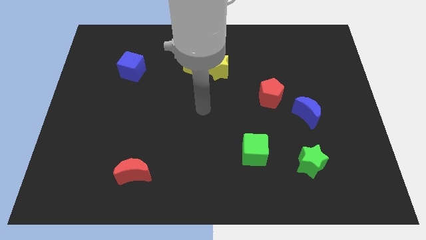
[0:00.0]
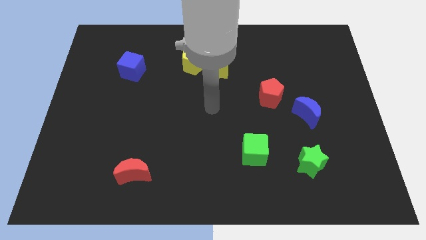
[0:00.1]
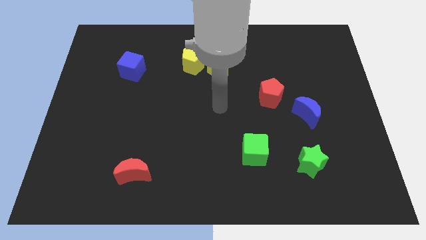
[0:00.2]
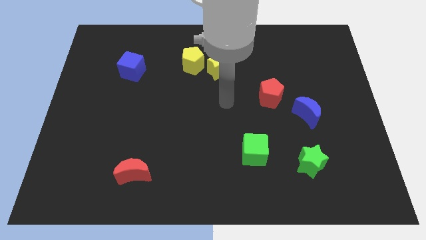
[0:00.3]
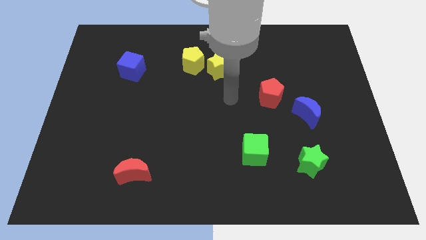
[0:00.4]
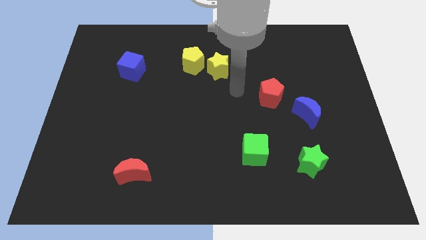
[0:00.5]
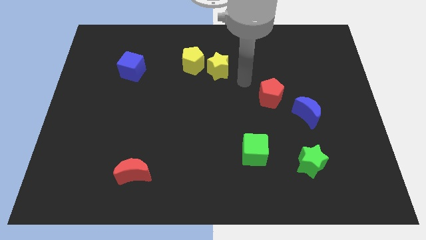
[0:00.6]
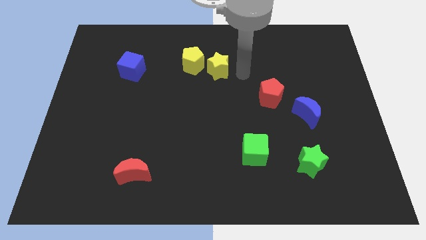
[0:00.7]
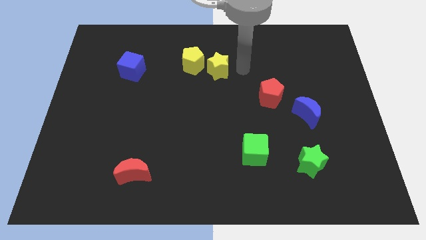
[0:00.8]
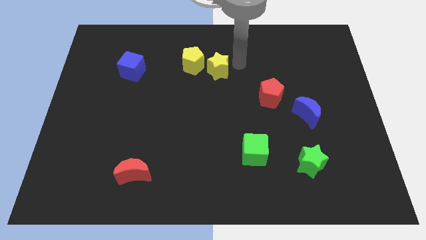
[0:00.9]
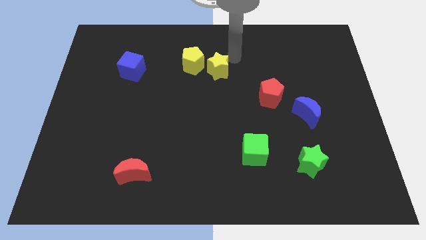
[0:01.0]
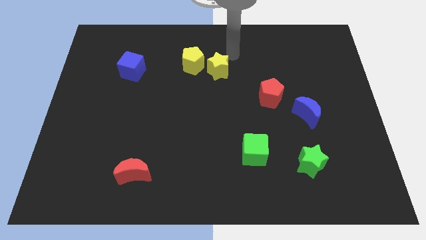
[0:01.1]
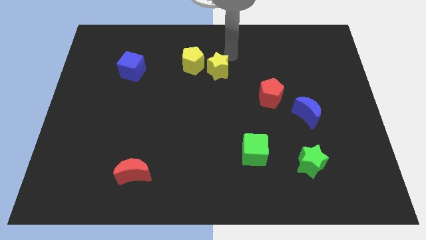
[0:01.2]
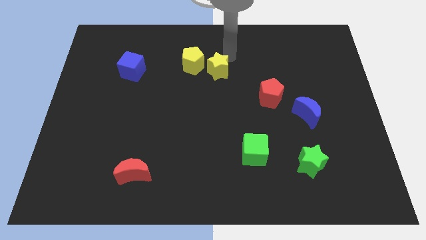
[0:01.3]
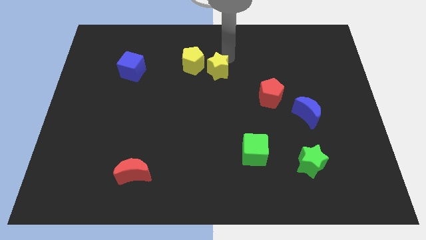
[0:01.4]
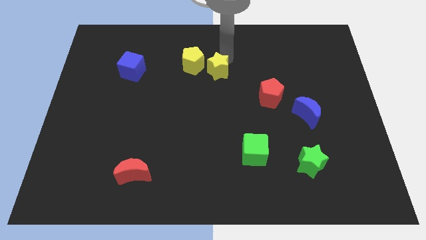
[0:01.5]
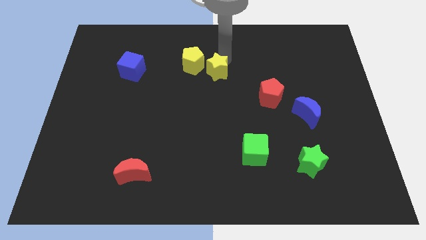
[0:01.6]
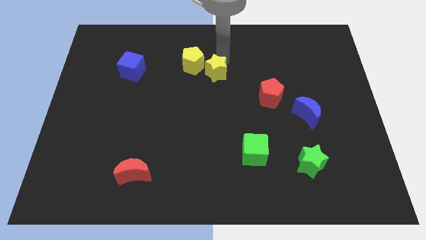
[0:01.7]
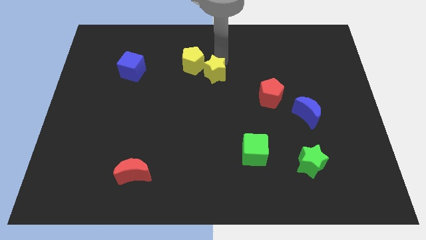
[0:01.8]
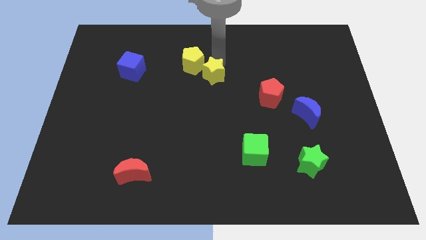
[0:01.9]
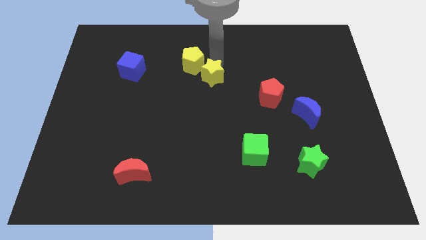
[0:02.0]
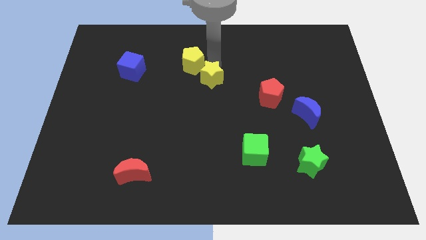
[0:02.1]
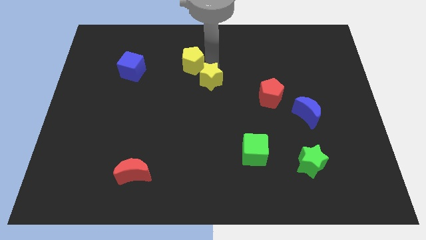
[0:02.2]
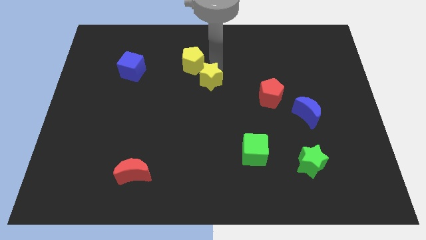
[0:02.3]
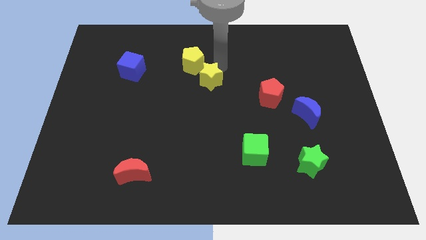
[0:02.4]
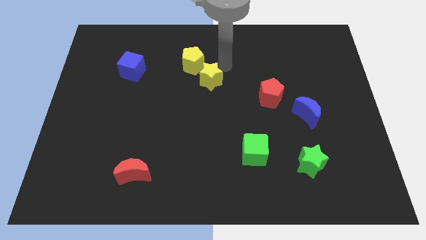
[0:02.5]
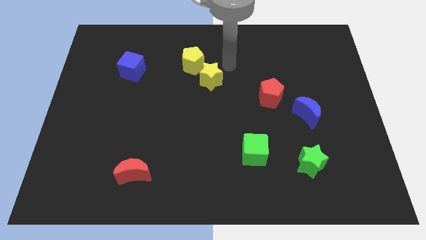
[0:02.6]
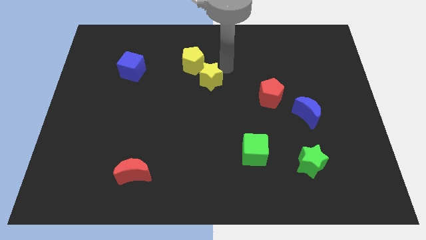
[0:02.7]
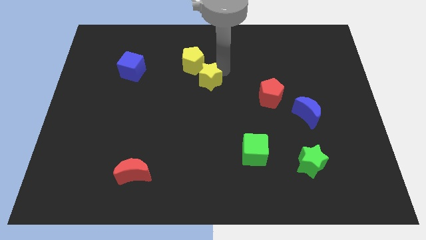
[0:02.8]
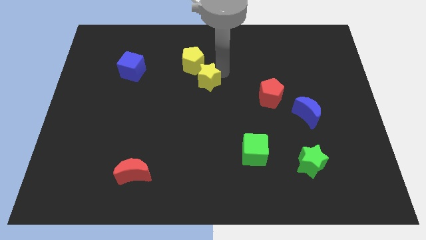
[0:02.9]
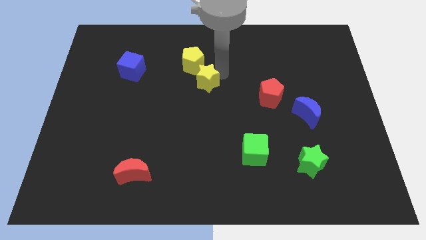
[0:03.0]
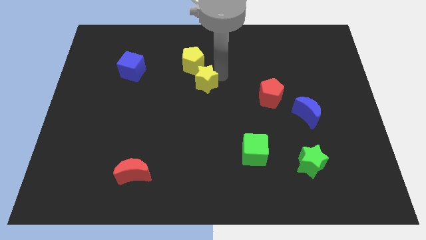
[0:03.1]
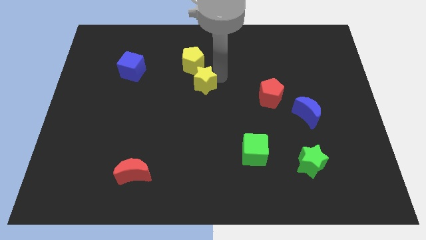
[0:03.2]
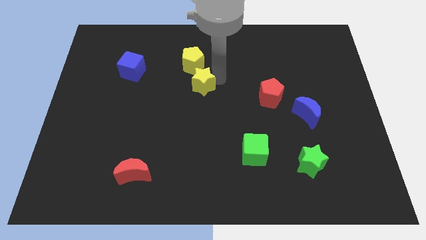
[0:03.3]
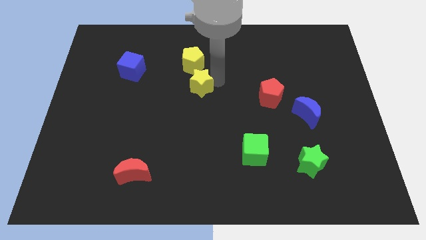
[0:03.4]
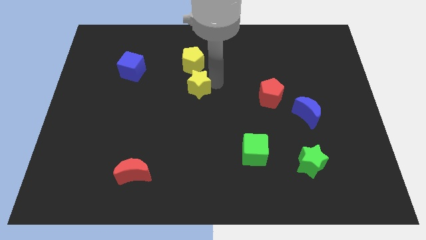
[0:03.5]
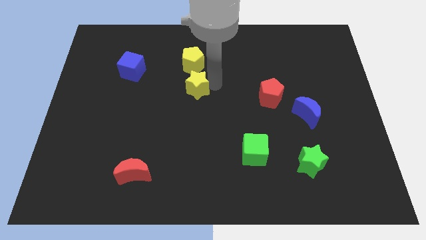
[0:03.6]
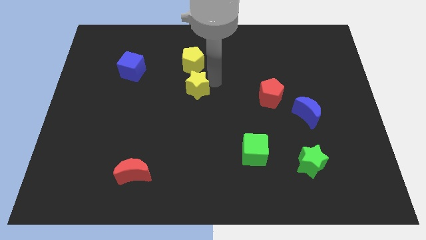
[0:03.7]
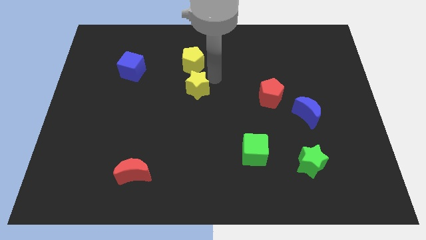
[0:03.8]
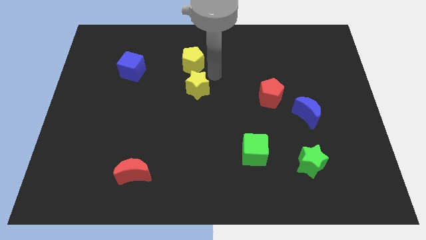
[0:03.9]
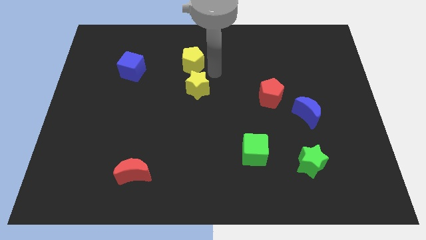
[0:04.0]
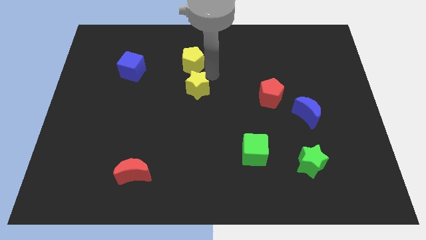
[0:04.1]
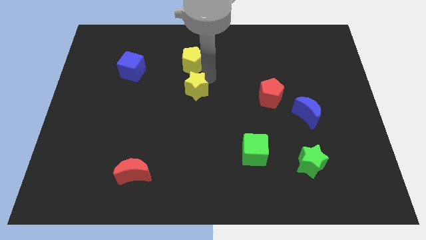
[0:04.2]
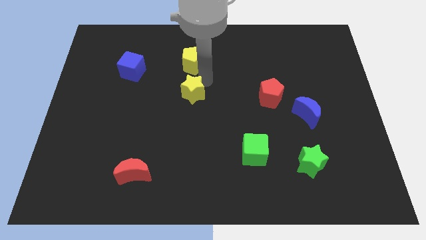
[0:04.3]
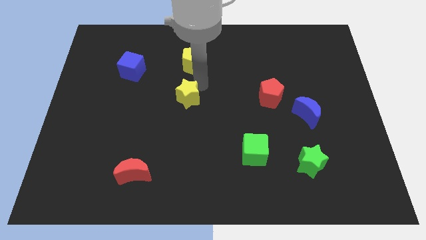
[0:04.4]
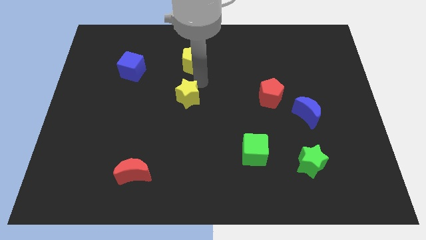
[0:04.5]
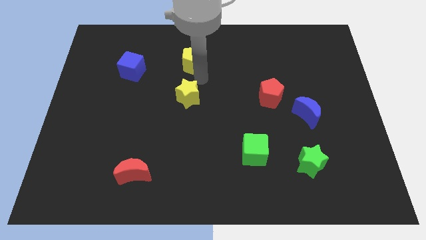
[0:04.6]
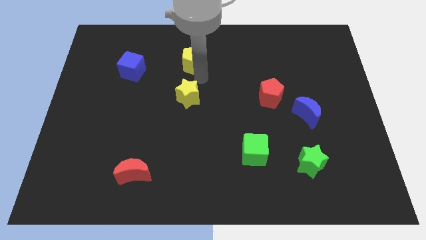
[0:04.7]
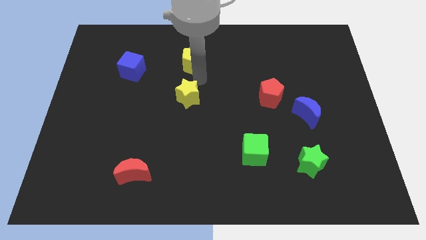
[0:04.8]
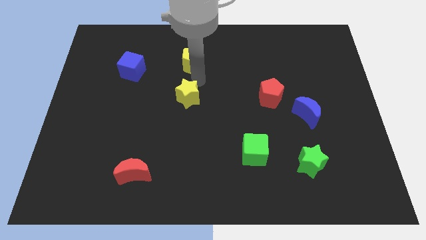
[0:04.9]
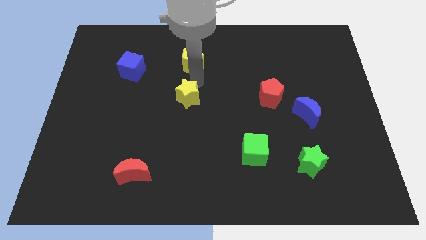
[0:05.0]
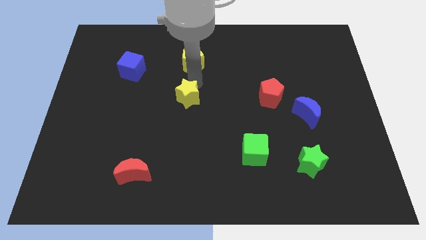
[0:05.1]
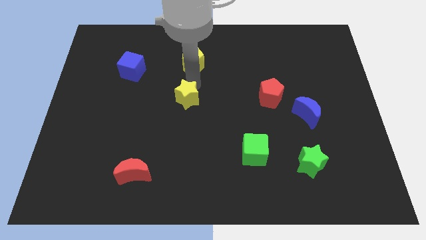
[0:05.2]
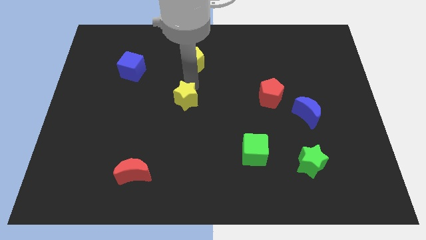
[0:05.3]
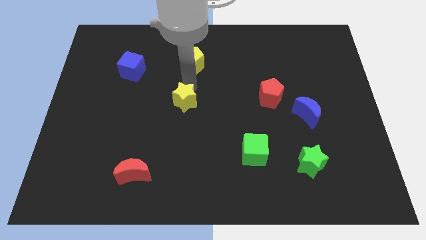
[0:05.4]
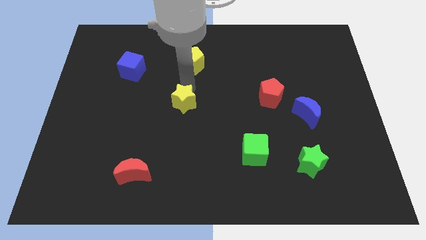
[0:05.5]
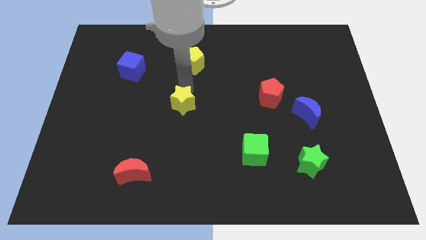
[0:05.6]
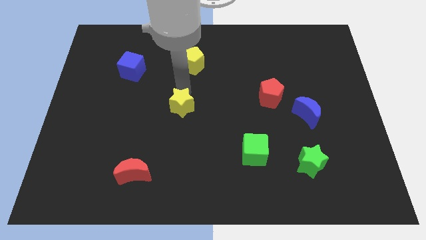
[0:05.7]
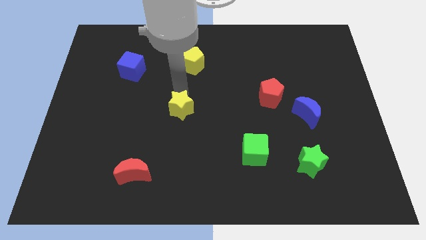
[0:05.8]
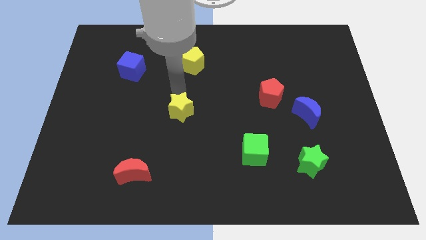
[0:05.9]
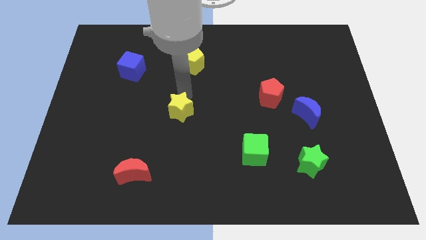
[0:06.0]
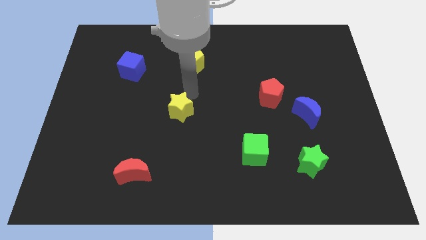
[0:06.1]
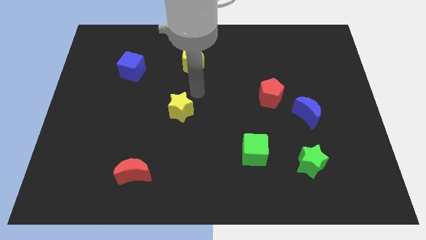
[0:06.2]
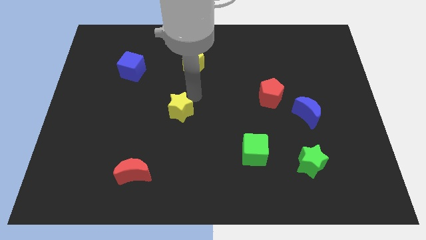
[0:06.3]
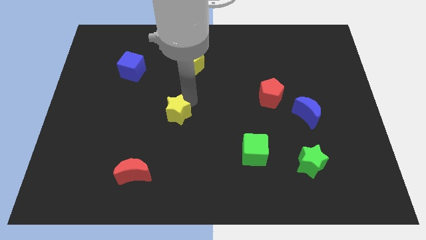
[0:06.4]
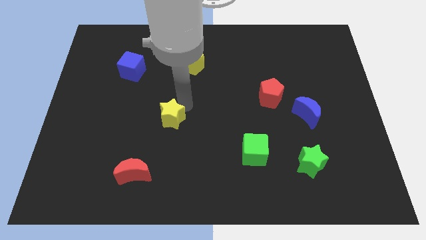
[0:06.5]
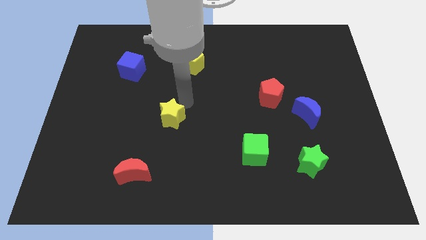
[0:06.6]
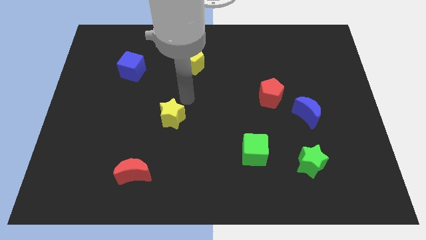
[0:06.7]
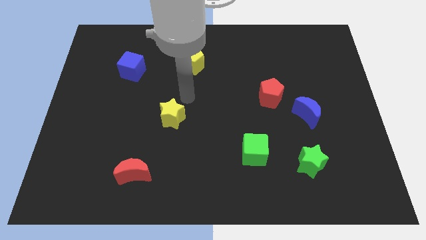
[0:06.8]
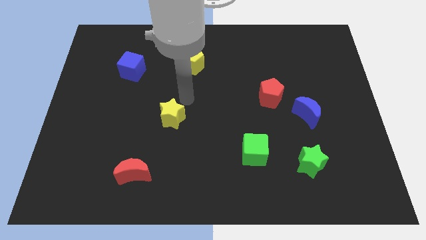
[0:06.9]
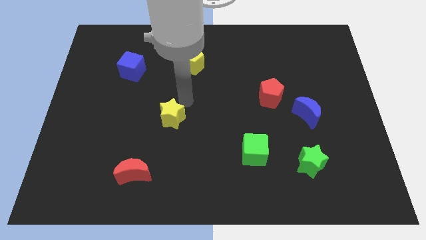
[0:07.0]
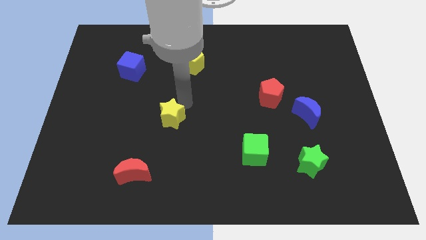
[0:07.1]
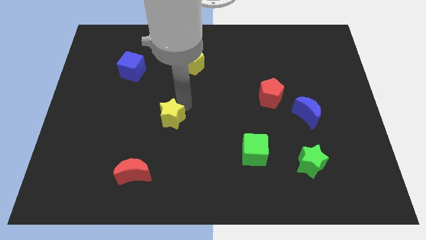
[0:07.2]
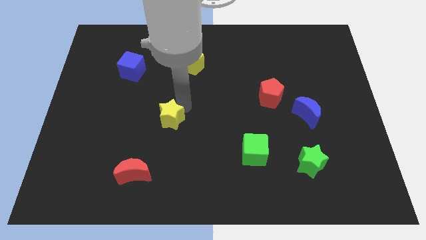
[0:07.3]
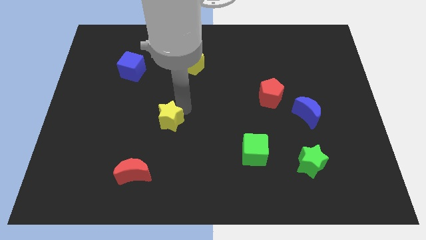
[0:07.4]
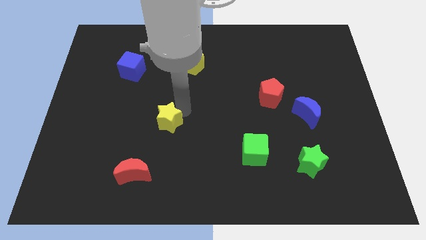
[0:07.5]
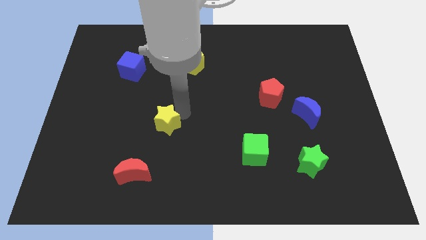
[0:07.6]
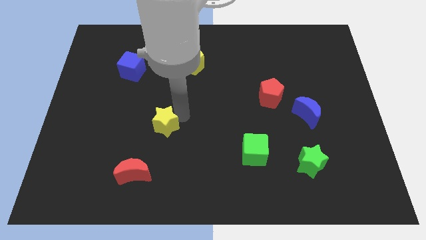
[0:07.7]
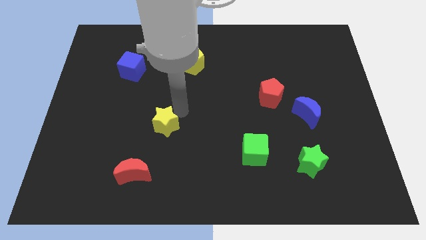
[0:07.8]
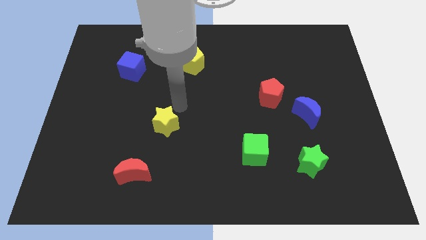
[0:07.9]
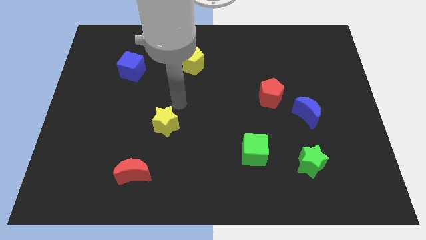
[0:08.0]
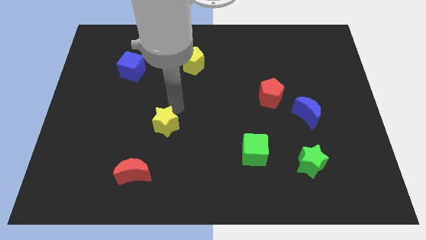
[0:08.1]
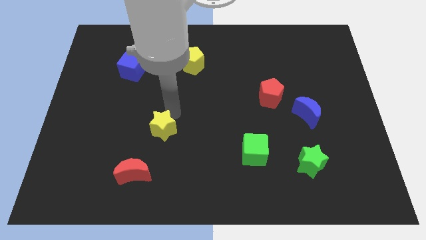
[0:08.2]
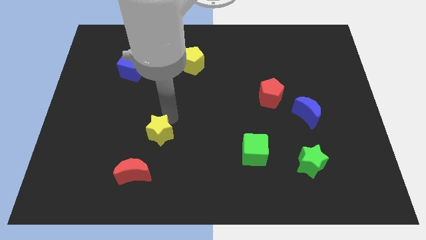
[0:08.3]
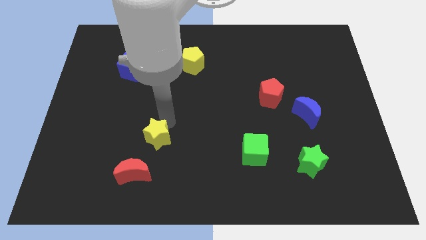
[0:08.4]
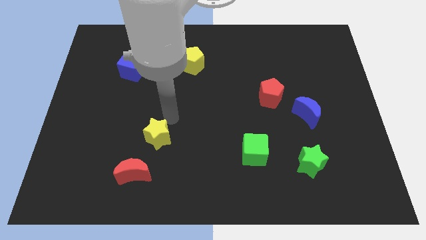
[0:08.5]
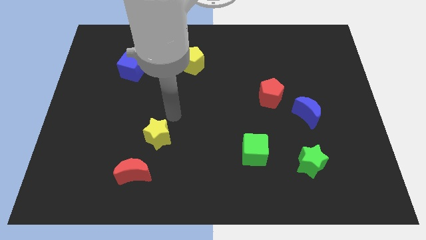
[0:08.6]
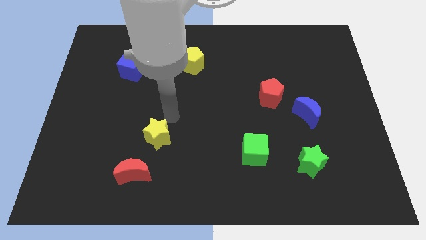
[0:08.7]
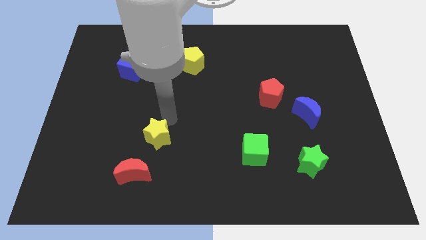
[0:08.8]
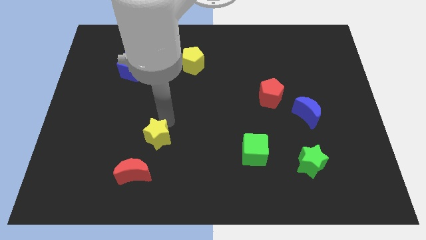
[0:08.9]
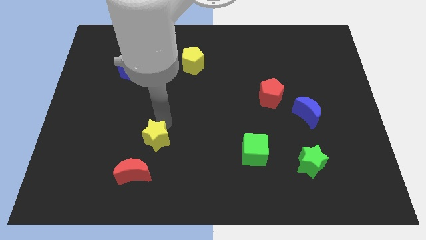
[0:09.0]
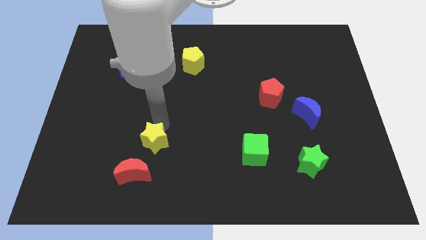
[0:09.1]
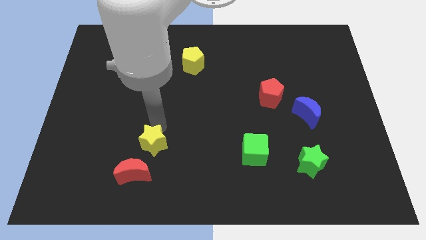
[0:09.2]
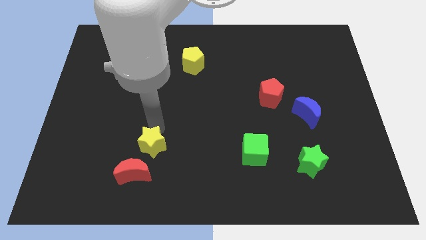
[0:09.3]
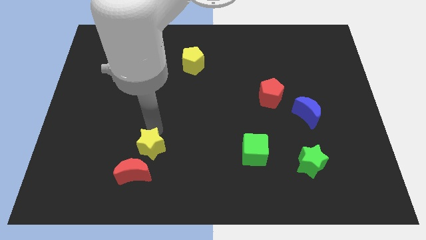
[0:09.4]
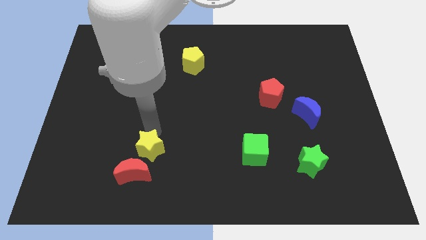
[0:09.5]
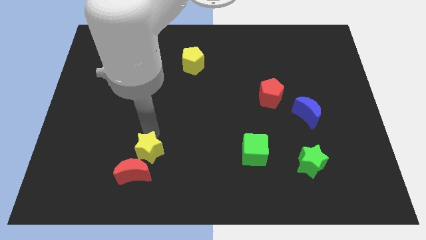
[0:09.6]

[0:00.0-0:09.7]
push the yellow star towards the red moon
